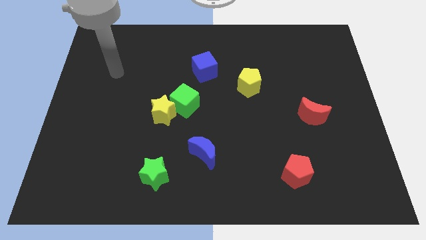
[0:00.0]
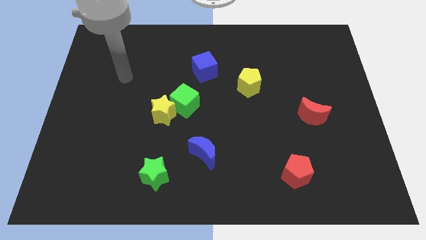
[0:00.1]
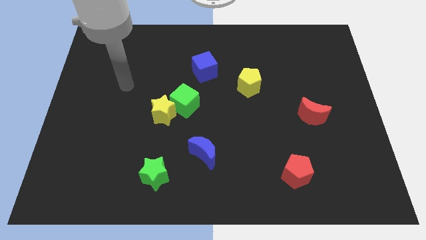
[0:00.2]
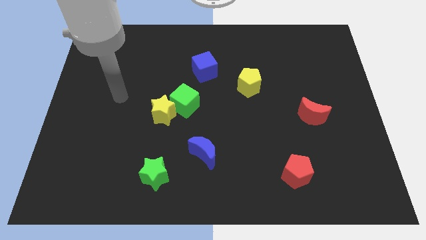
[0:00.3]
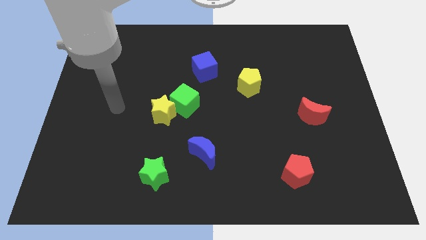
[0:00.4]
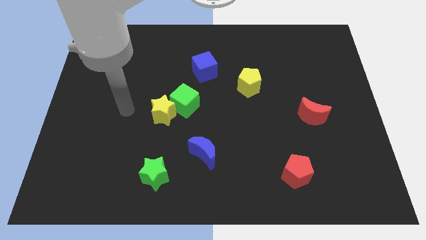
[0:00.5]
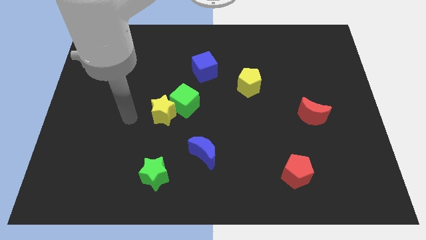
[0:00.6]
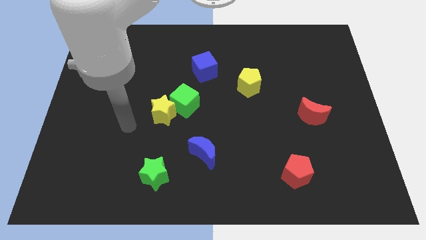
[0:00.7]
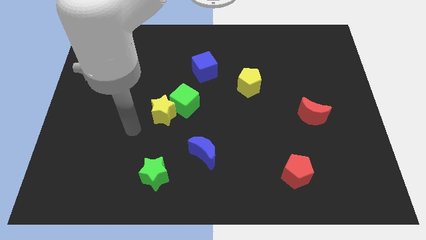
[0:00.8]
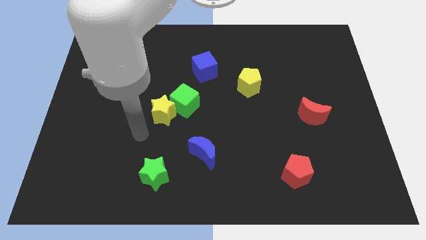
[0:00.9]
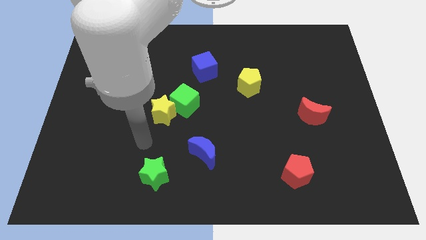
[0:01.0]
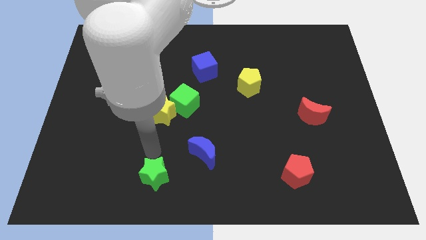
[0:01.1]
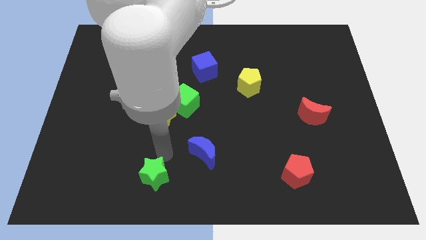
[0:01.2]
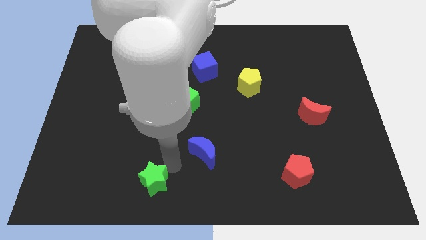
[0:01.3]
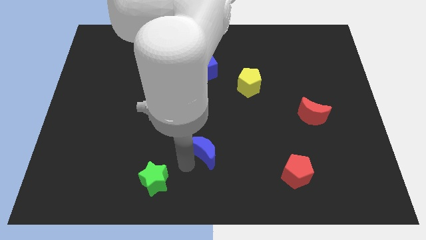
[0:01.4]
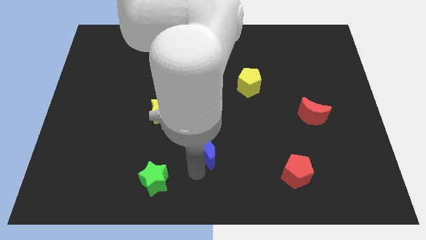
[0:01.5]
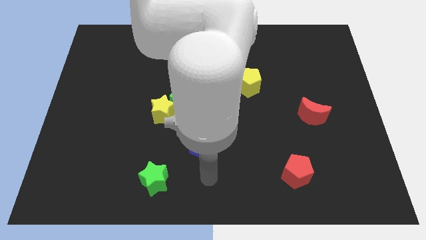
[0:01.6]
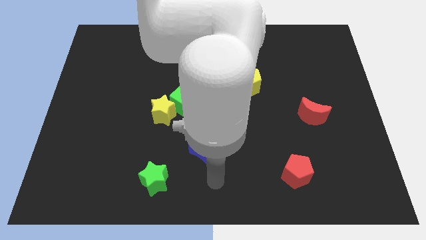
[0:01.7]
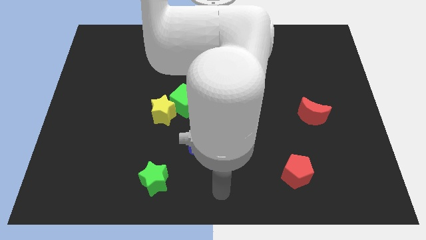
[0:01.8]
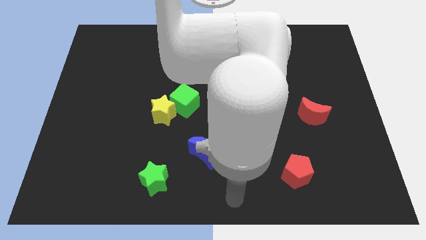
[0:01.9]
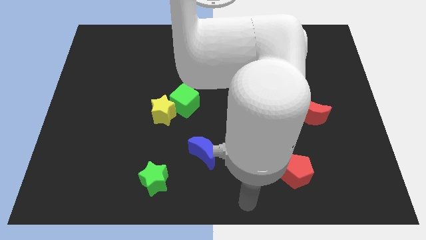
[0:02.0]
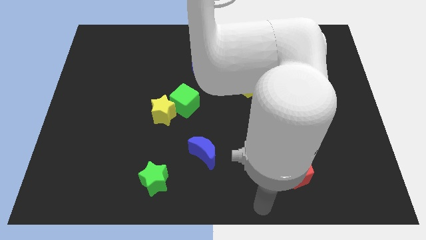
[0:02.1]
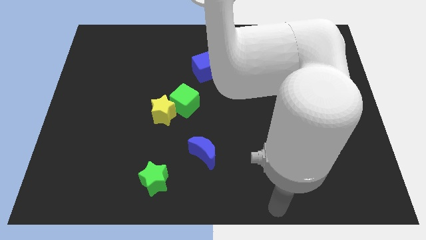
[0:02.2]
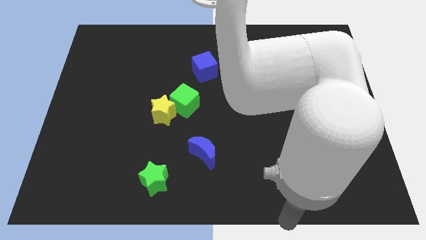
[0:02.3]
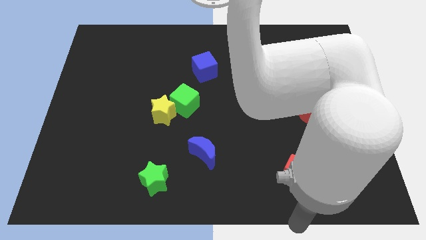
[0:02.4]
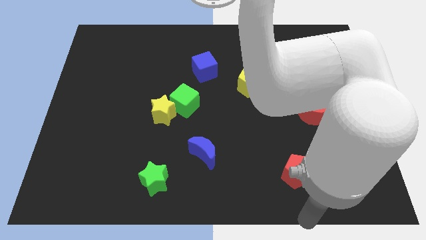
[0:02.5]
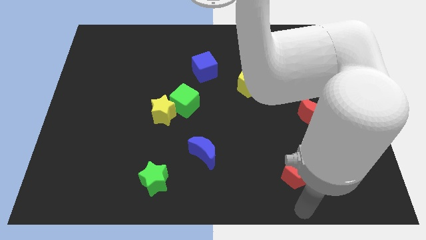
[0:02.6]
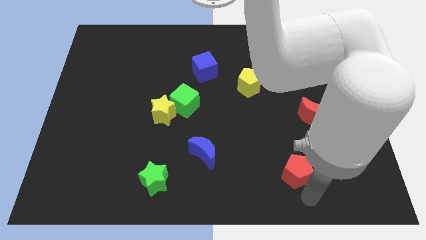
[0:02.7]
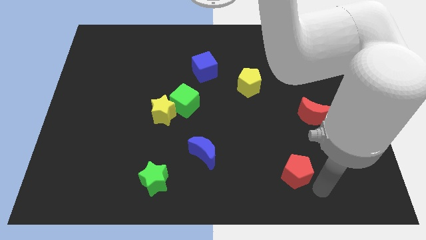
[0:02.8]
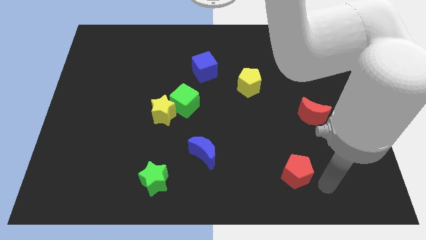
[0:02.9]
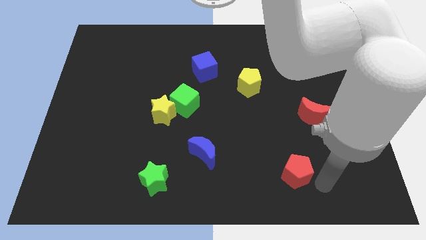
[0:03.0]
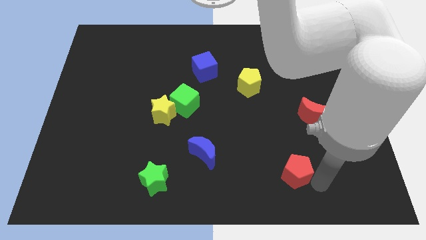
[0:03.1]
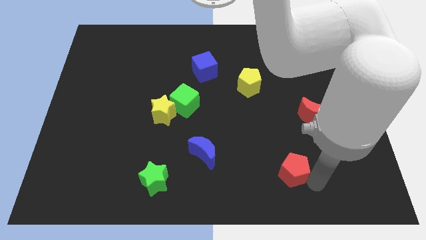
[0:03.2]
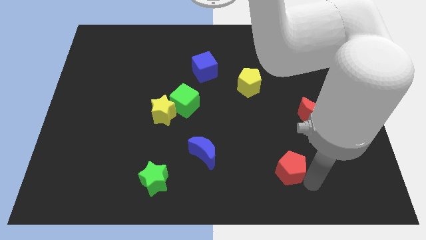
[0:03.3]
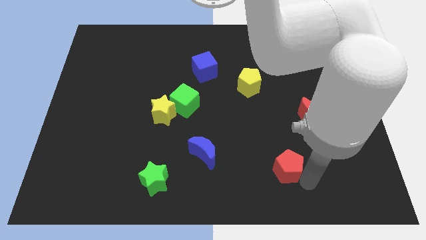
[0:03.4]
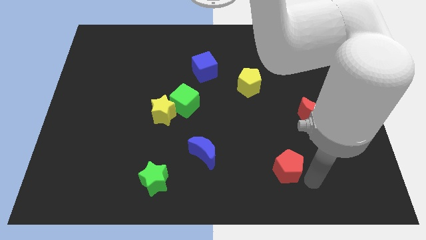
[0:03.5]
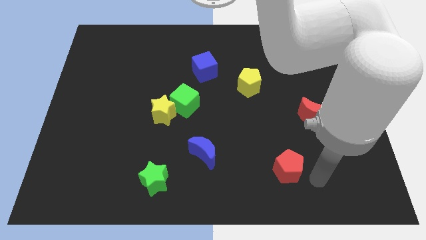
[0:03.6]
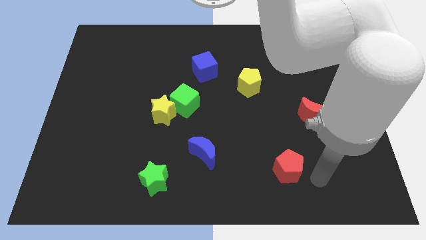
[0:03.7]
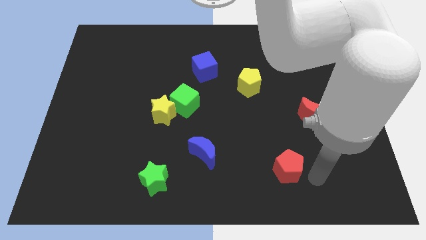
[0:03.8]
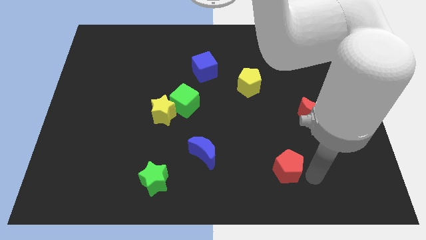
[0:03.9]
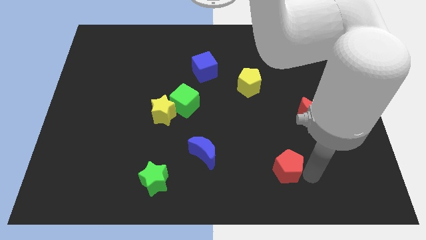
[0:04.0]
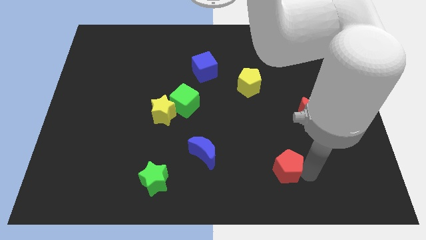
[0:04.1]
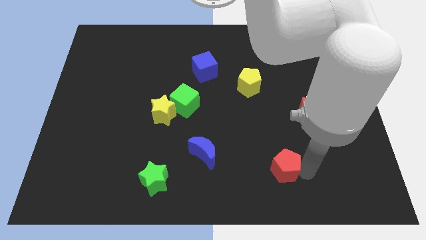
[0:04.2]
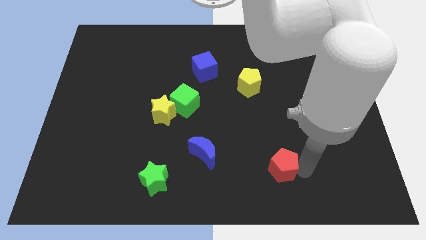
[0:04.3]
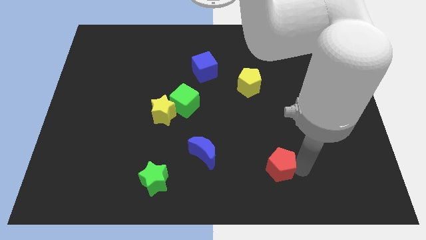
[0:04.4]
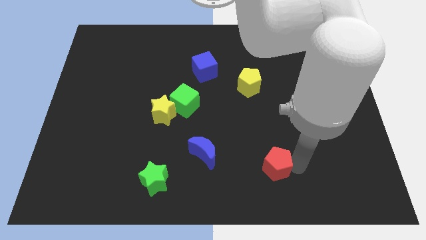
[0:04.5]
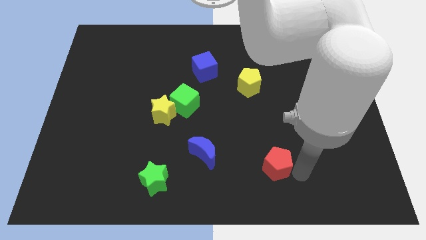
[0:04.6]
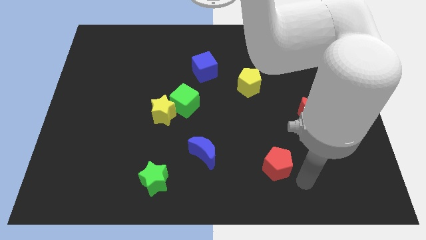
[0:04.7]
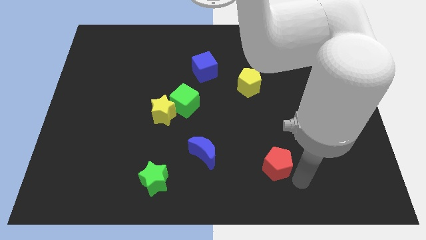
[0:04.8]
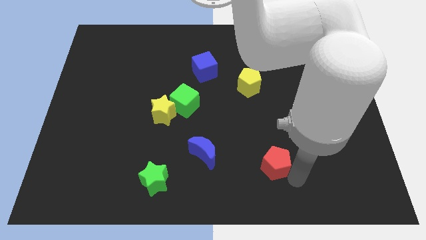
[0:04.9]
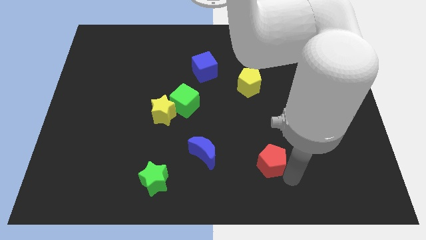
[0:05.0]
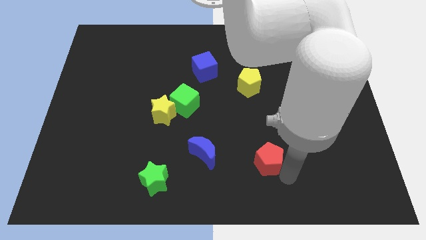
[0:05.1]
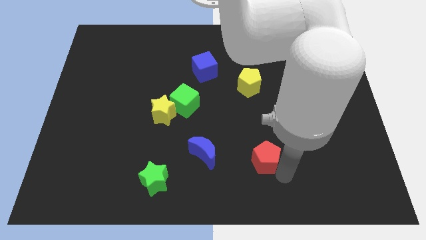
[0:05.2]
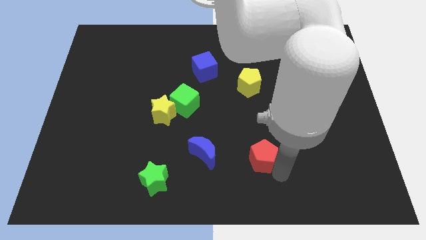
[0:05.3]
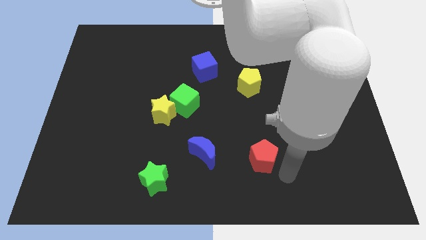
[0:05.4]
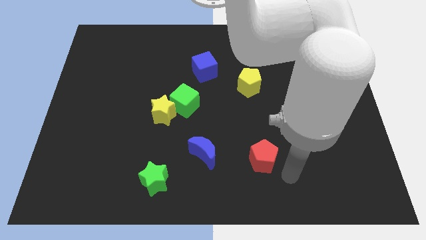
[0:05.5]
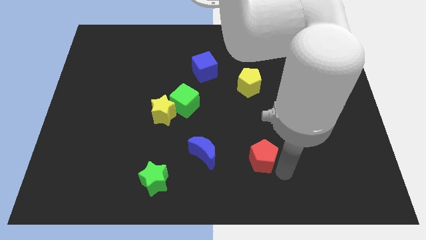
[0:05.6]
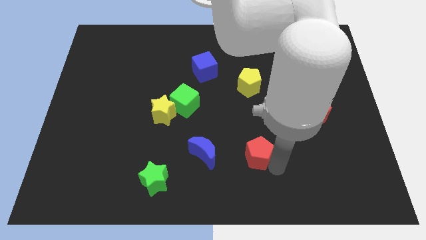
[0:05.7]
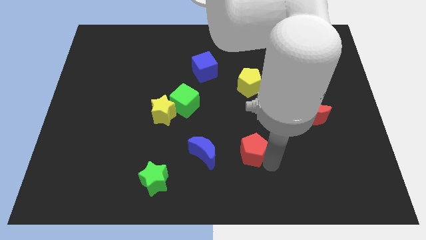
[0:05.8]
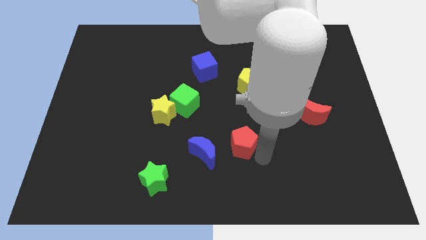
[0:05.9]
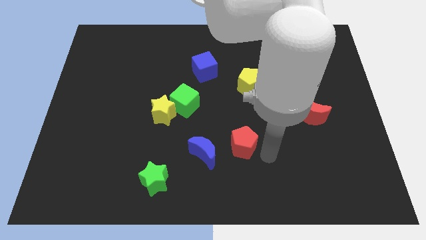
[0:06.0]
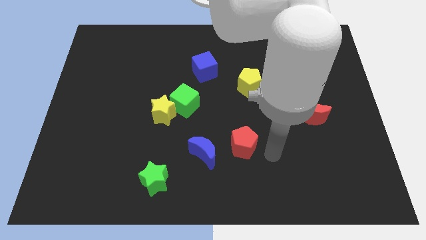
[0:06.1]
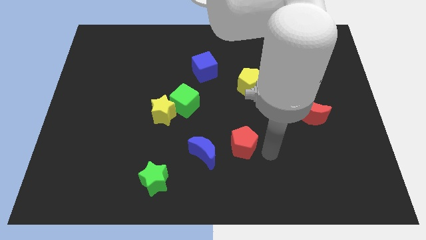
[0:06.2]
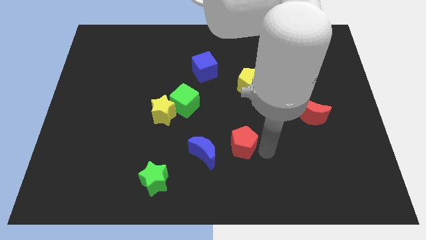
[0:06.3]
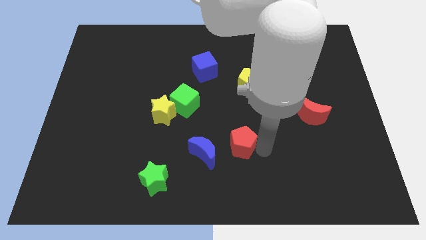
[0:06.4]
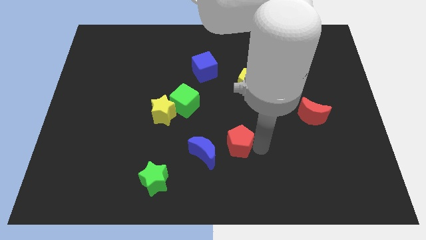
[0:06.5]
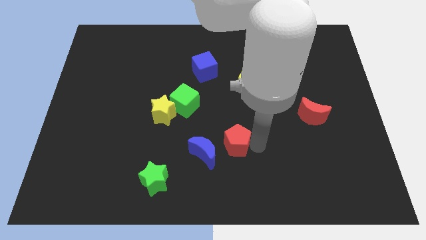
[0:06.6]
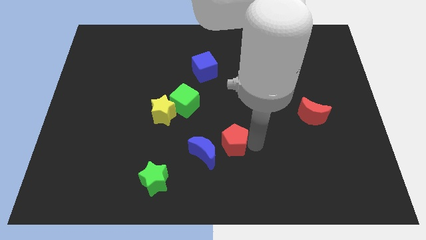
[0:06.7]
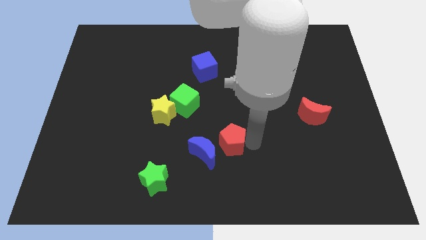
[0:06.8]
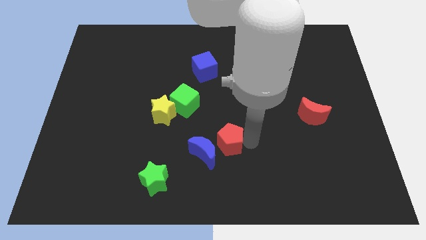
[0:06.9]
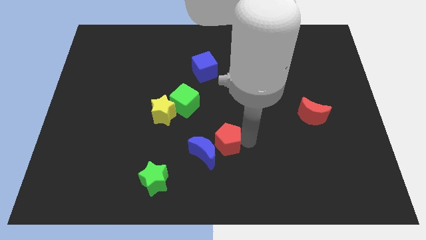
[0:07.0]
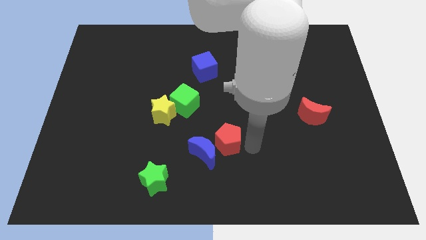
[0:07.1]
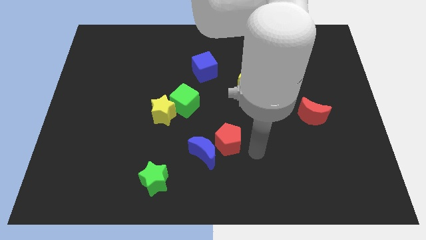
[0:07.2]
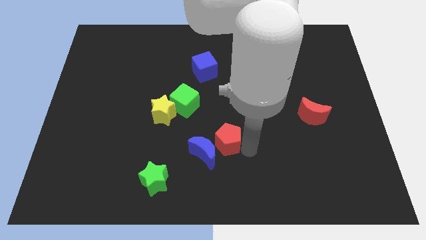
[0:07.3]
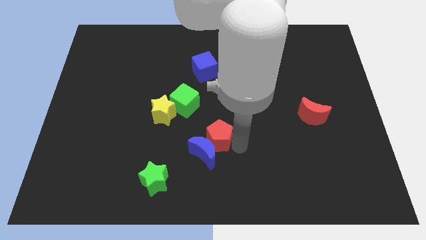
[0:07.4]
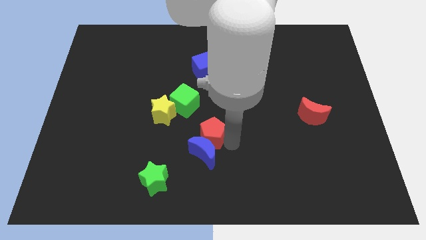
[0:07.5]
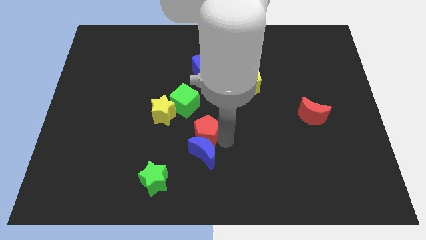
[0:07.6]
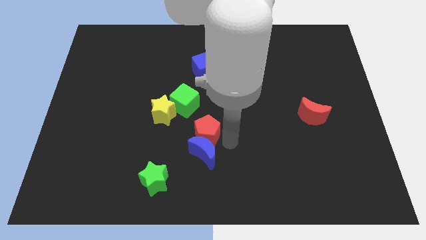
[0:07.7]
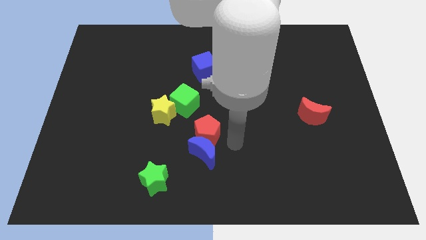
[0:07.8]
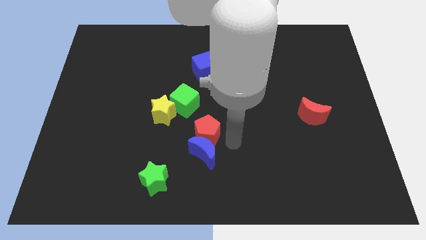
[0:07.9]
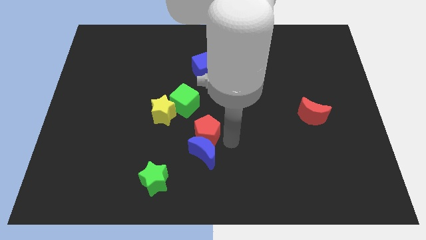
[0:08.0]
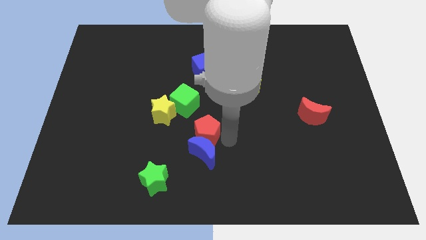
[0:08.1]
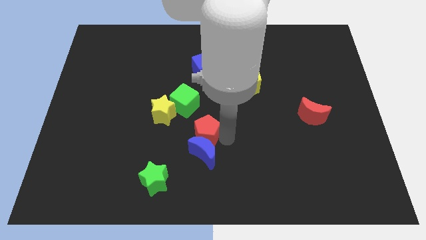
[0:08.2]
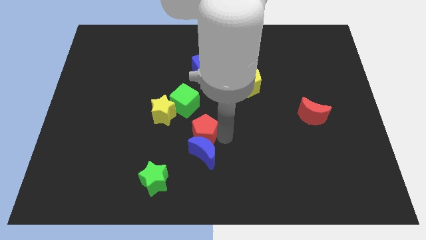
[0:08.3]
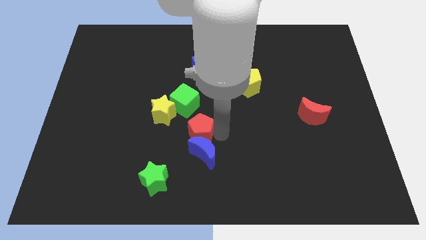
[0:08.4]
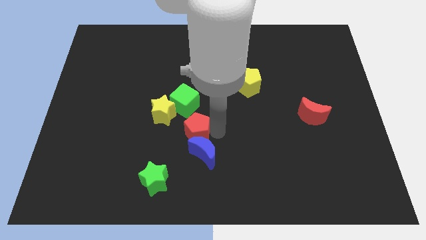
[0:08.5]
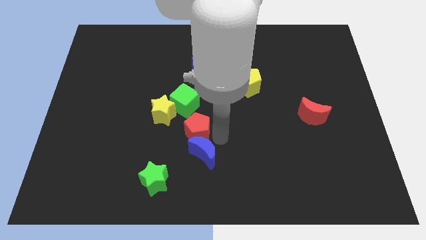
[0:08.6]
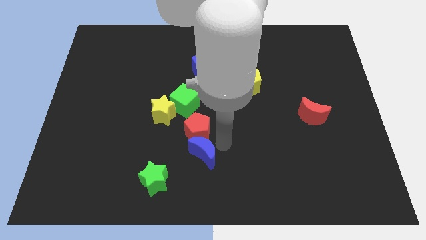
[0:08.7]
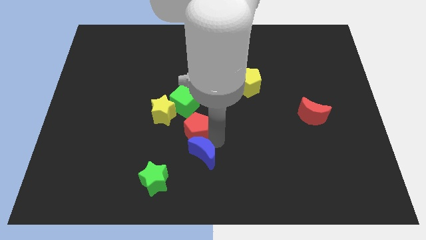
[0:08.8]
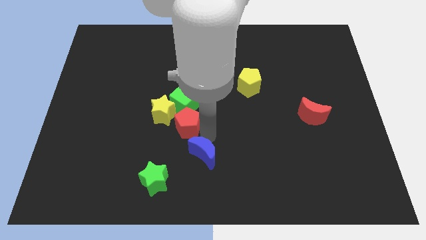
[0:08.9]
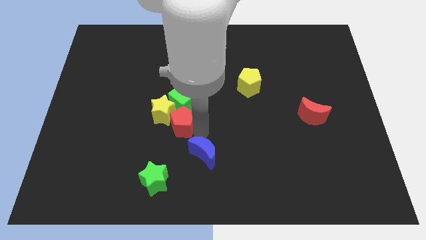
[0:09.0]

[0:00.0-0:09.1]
slide the red pentagon close to the yellow star
